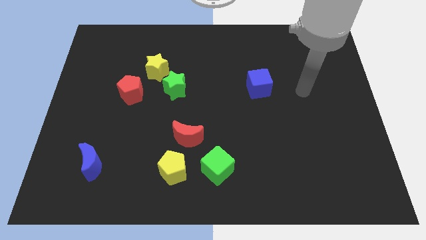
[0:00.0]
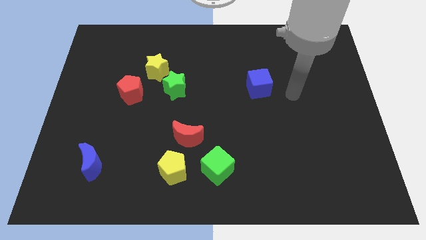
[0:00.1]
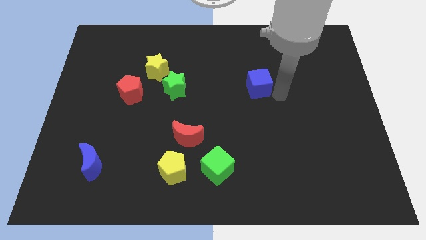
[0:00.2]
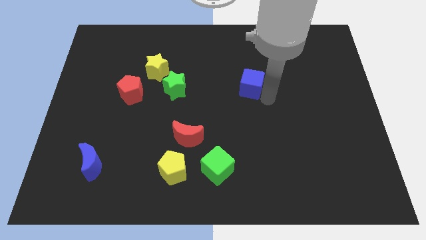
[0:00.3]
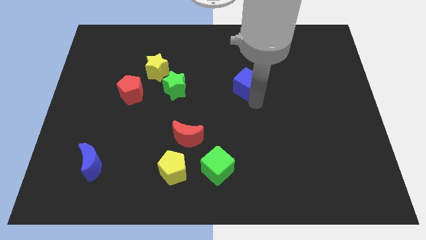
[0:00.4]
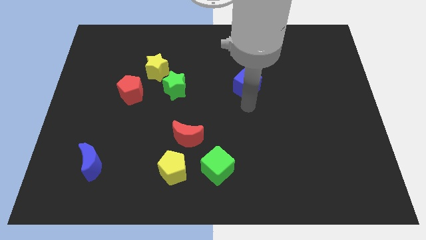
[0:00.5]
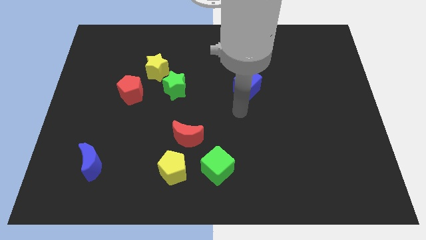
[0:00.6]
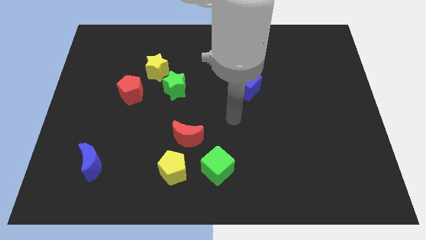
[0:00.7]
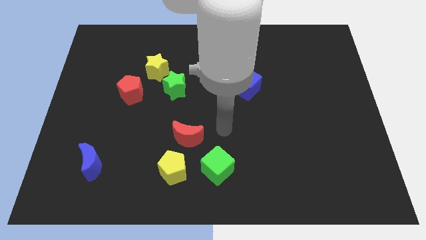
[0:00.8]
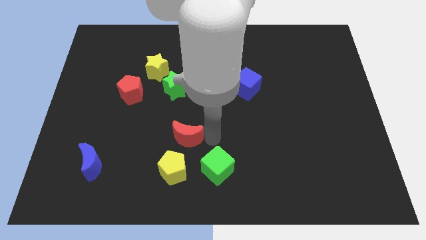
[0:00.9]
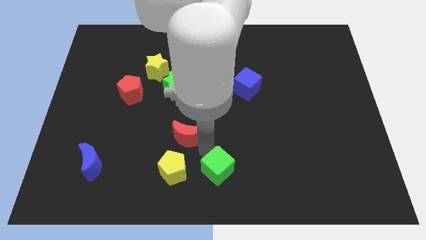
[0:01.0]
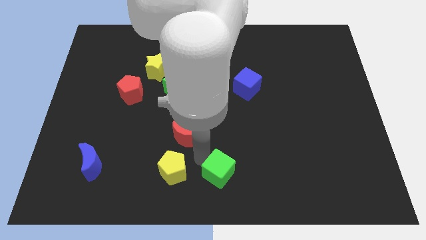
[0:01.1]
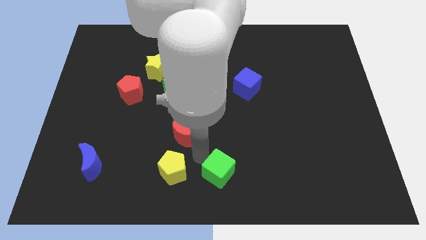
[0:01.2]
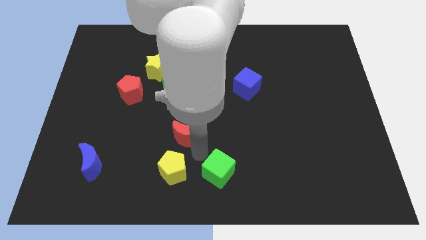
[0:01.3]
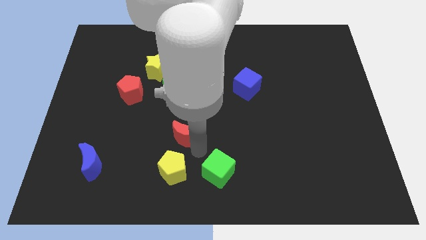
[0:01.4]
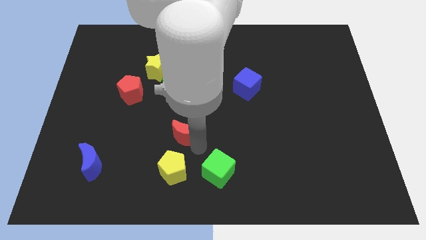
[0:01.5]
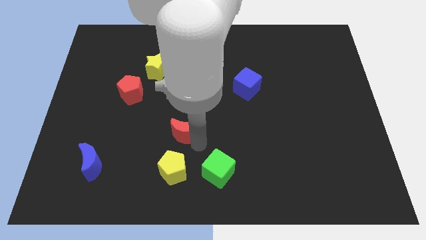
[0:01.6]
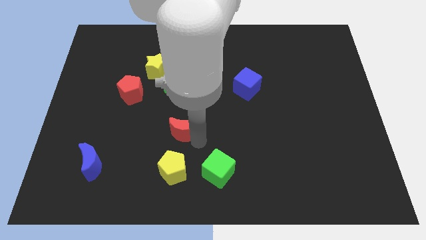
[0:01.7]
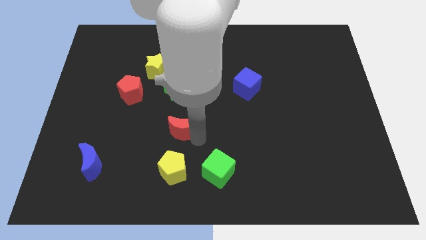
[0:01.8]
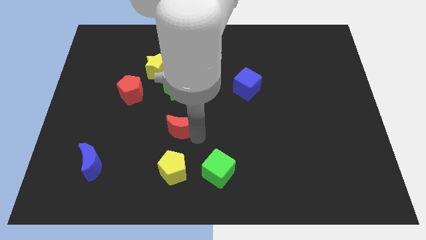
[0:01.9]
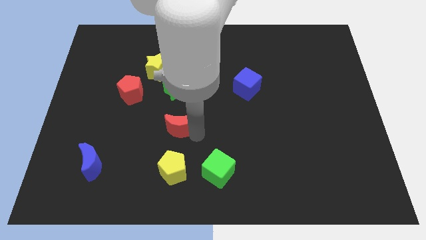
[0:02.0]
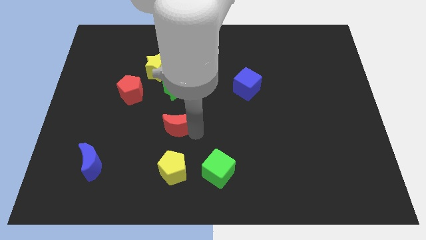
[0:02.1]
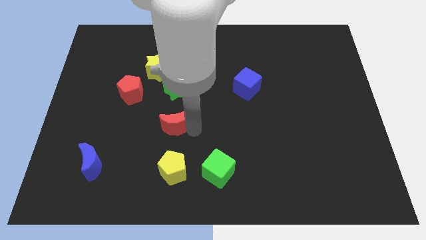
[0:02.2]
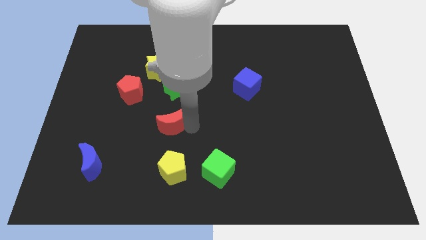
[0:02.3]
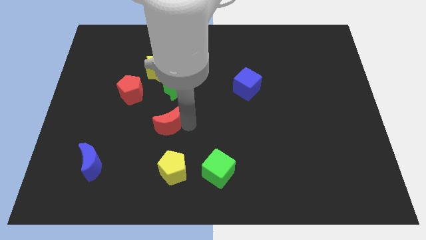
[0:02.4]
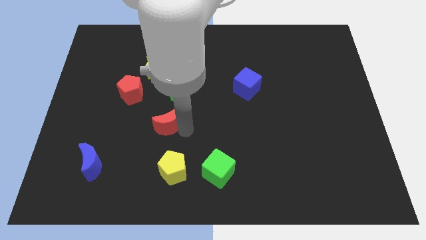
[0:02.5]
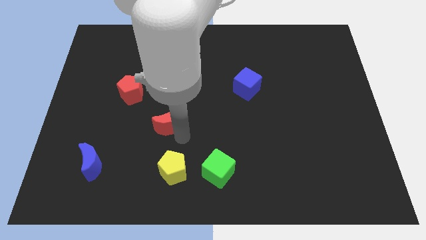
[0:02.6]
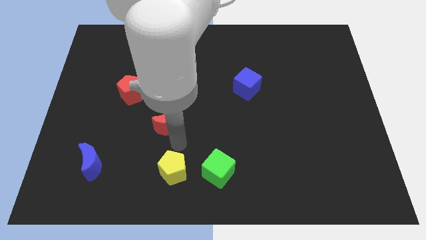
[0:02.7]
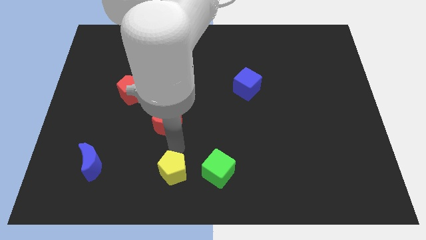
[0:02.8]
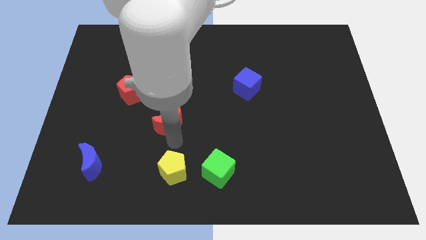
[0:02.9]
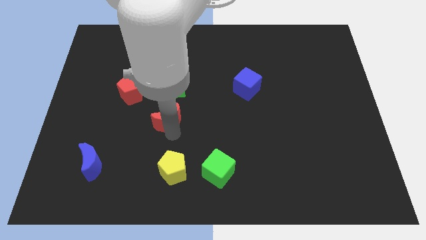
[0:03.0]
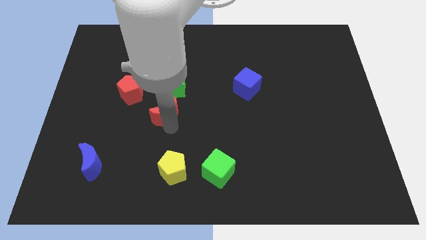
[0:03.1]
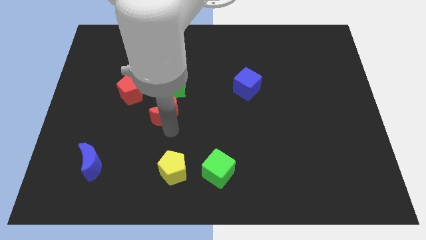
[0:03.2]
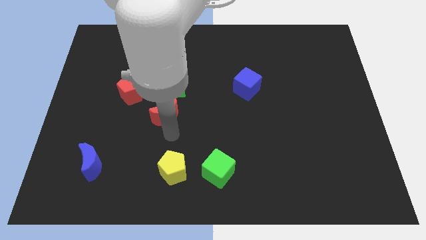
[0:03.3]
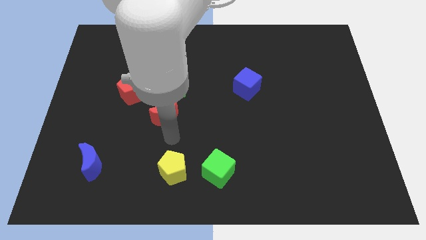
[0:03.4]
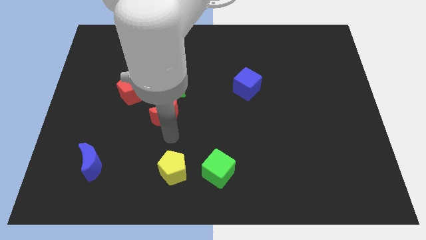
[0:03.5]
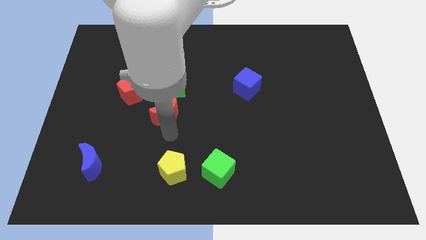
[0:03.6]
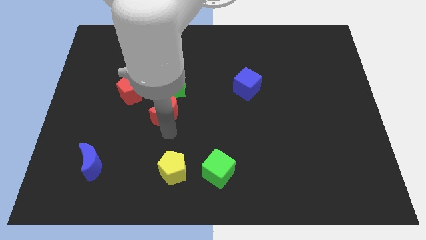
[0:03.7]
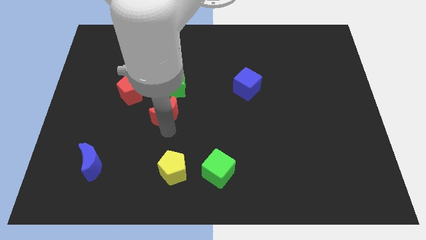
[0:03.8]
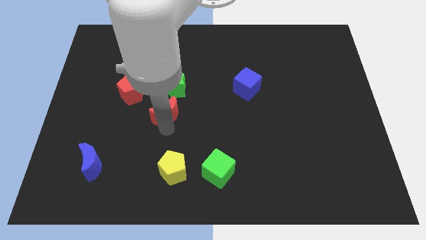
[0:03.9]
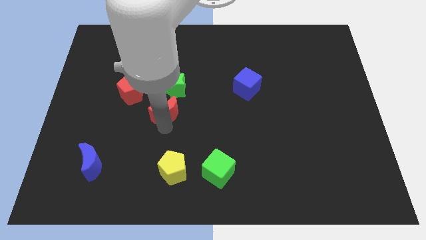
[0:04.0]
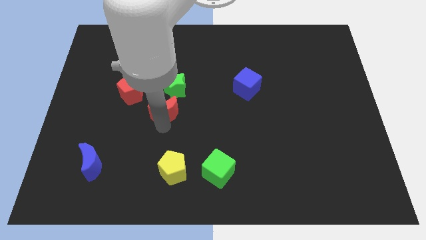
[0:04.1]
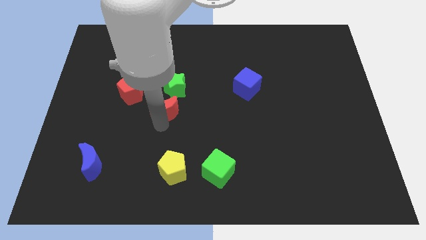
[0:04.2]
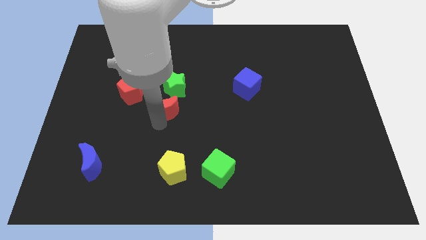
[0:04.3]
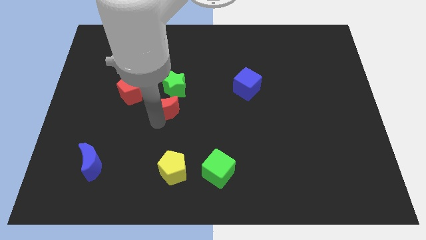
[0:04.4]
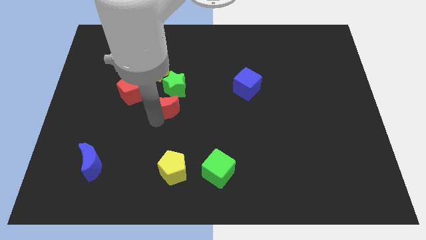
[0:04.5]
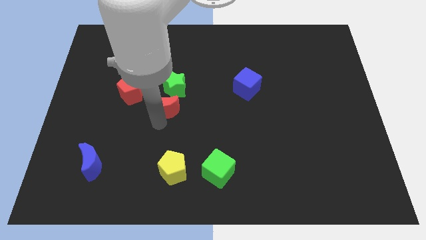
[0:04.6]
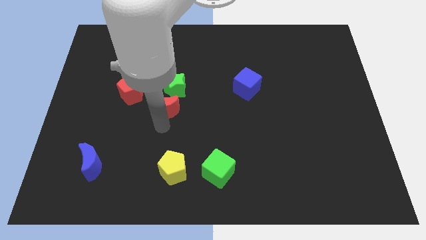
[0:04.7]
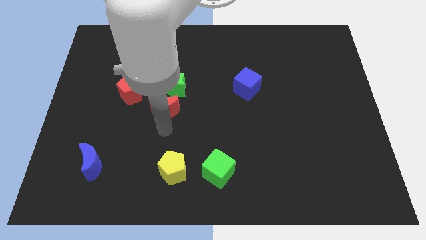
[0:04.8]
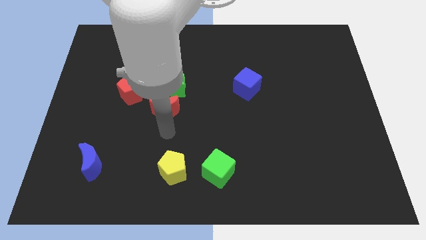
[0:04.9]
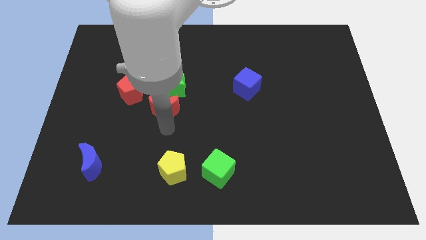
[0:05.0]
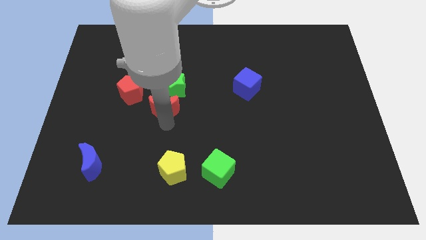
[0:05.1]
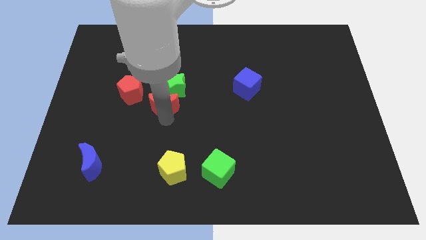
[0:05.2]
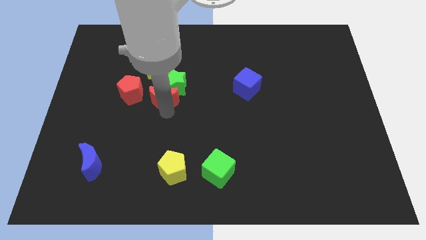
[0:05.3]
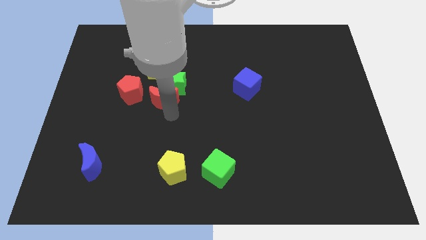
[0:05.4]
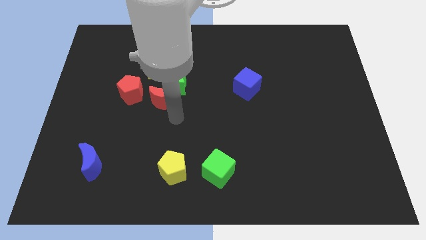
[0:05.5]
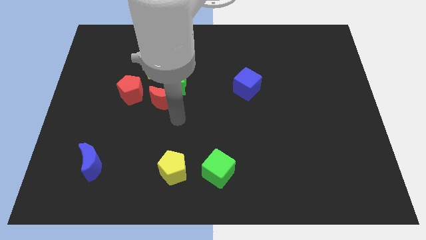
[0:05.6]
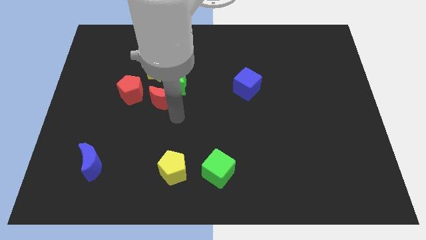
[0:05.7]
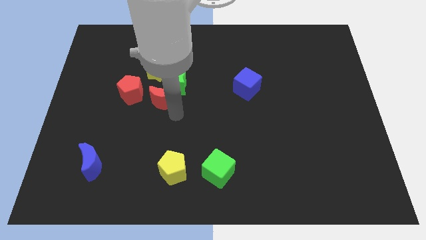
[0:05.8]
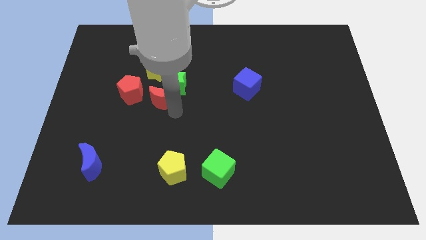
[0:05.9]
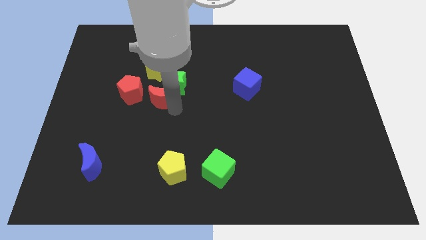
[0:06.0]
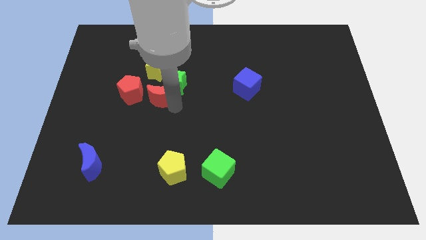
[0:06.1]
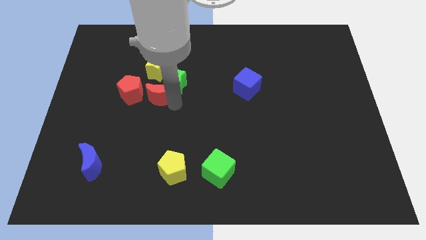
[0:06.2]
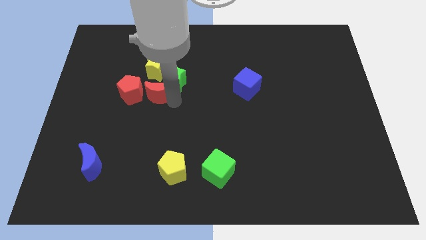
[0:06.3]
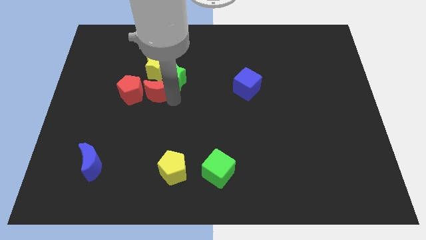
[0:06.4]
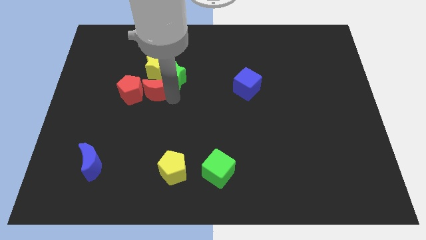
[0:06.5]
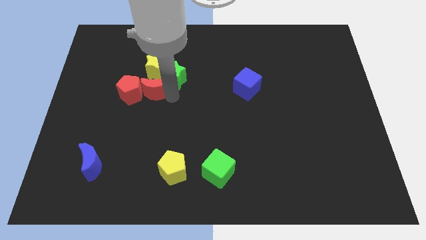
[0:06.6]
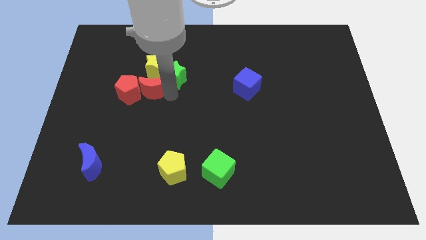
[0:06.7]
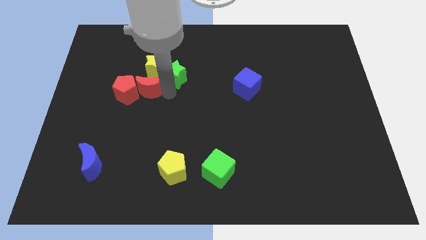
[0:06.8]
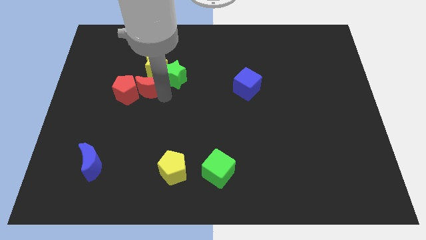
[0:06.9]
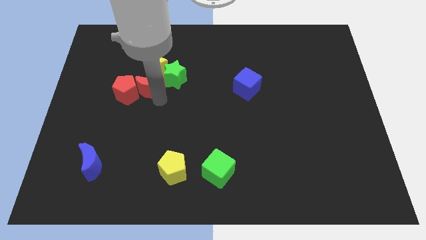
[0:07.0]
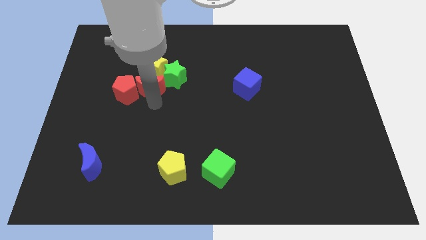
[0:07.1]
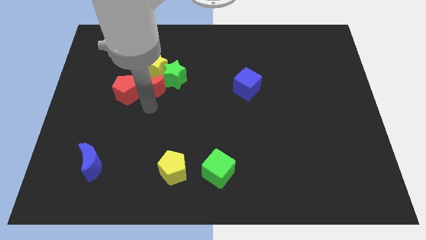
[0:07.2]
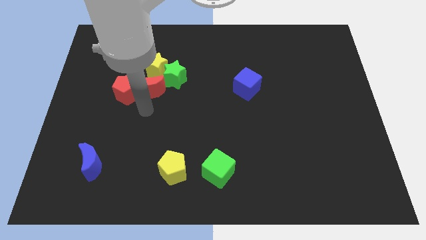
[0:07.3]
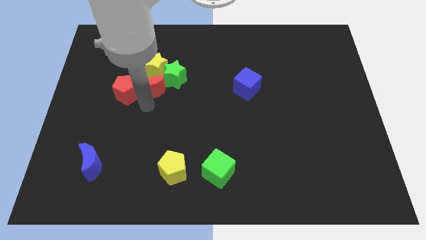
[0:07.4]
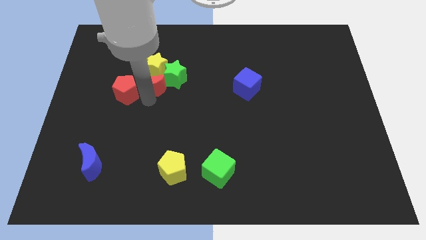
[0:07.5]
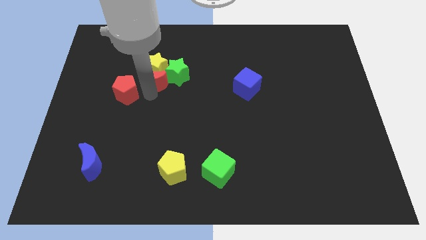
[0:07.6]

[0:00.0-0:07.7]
slide the red moon to the yellow star
